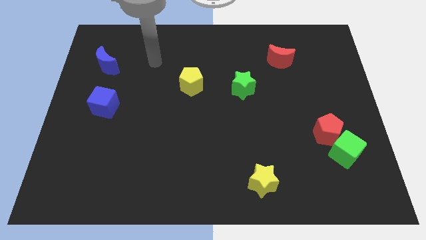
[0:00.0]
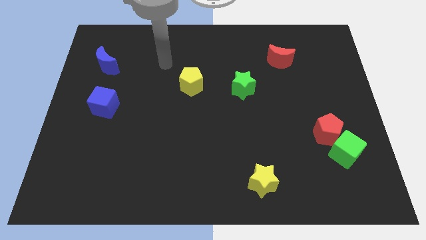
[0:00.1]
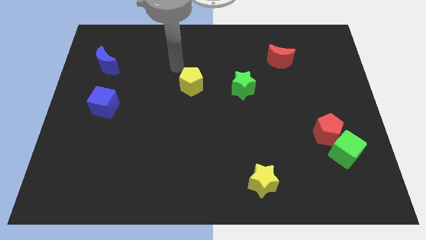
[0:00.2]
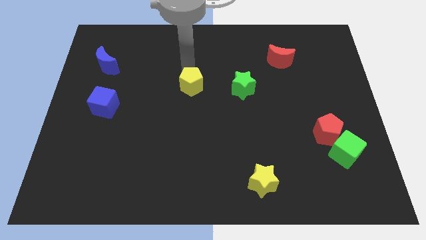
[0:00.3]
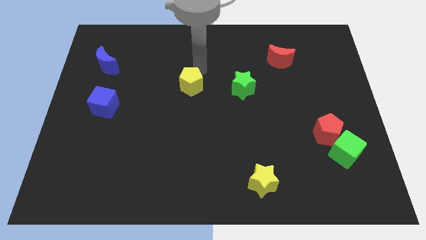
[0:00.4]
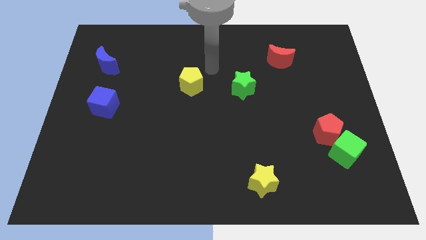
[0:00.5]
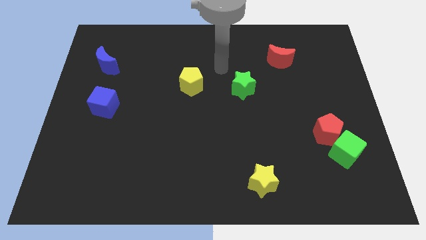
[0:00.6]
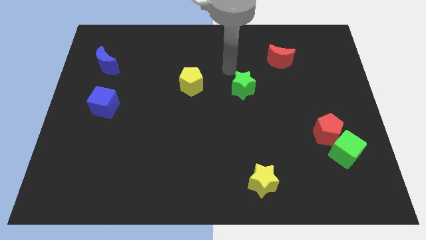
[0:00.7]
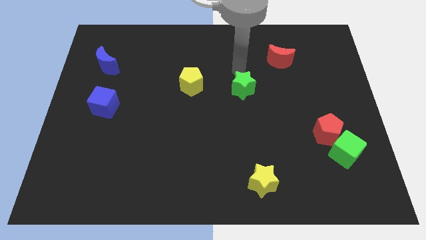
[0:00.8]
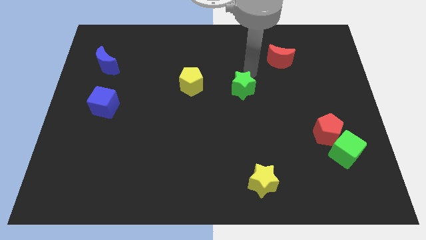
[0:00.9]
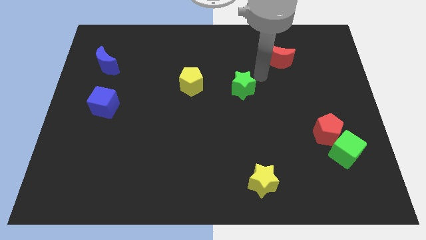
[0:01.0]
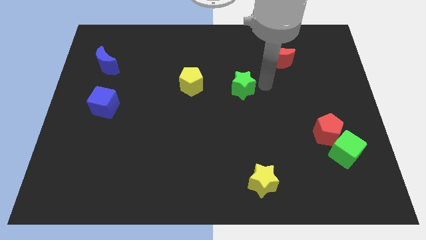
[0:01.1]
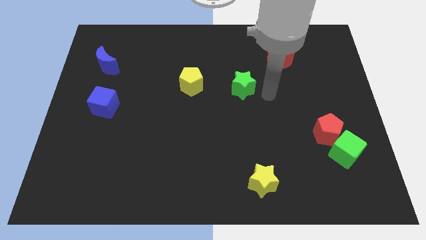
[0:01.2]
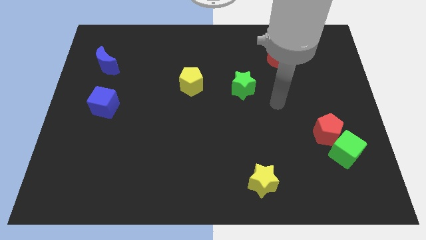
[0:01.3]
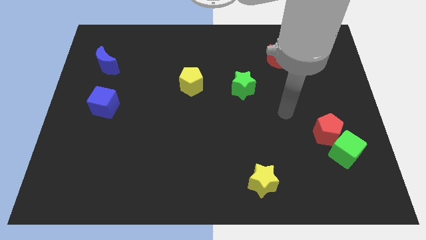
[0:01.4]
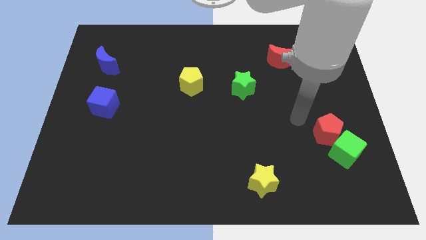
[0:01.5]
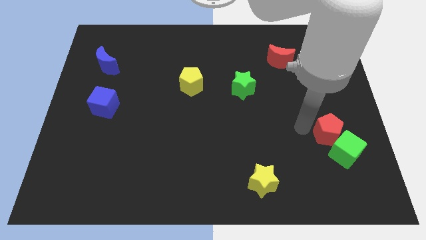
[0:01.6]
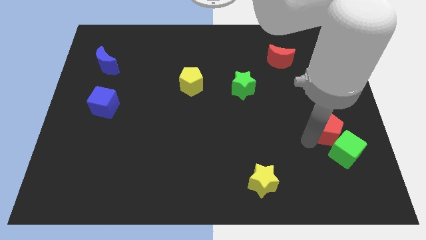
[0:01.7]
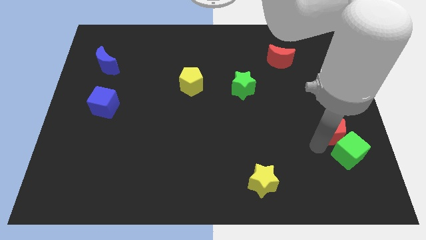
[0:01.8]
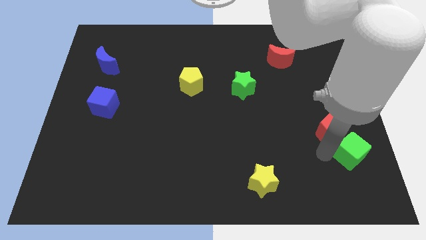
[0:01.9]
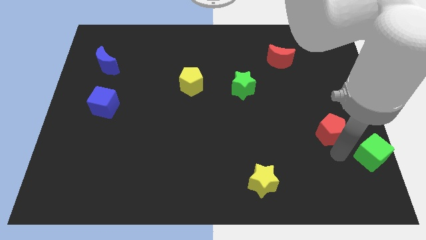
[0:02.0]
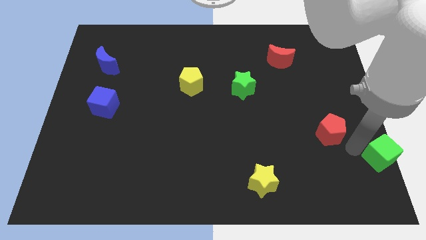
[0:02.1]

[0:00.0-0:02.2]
move the red pentagon away from the green cube

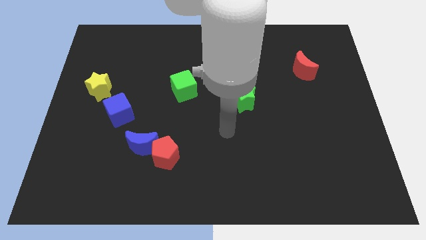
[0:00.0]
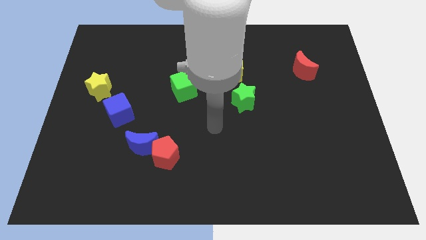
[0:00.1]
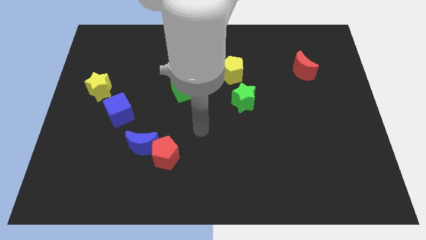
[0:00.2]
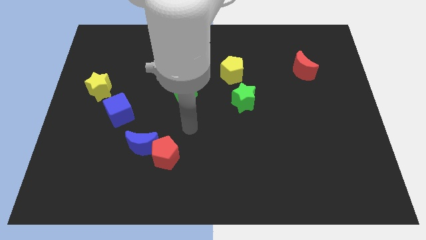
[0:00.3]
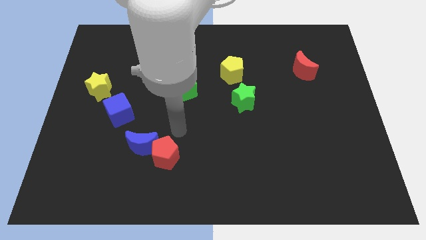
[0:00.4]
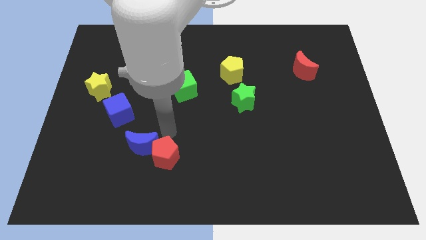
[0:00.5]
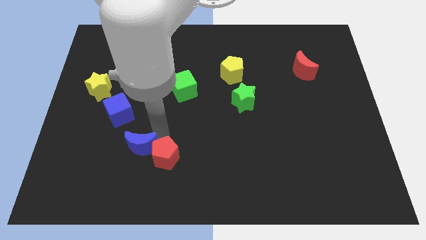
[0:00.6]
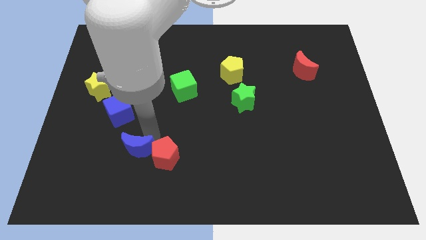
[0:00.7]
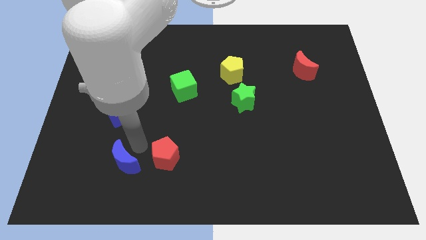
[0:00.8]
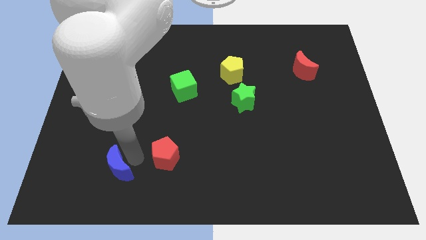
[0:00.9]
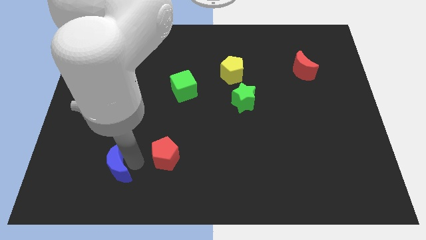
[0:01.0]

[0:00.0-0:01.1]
separate the red pentagon from the blue moon

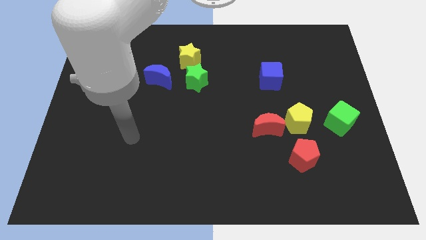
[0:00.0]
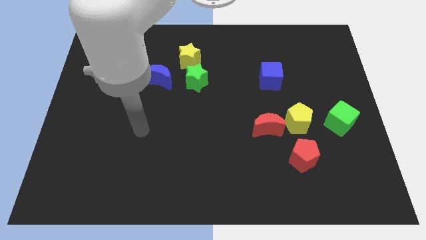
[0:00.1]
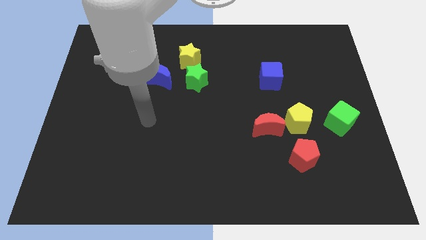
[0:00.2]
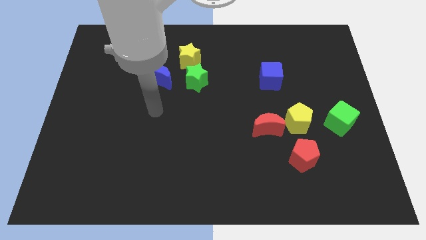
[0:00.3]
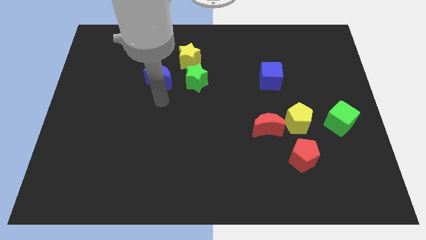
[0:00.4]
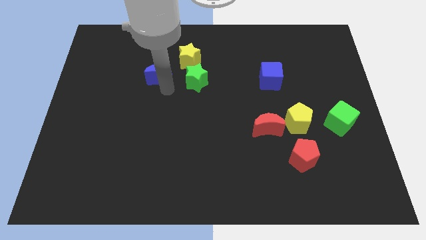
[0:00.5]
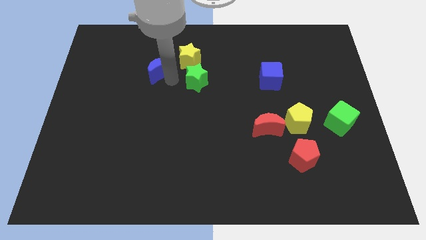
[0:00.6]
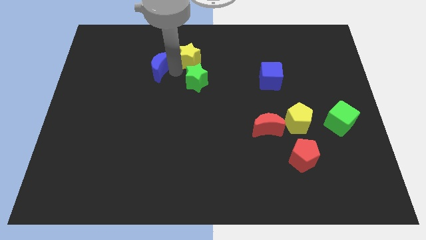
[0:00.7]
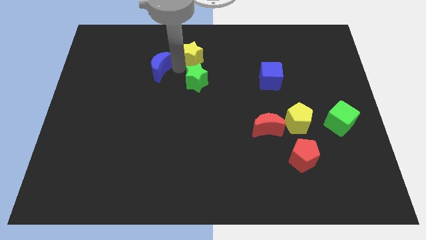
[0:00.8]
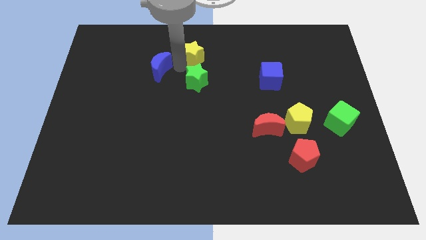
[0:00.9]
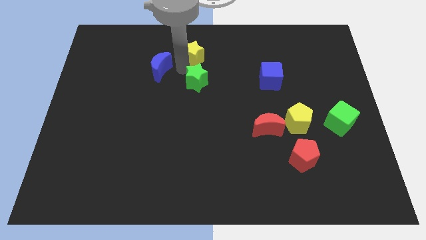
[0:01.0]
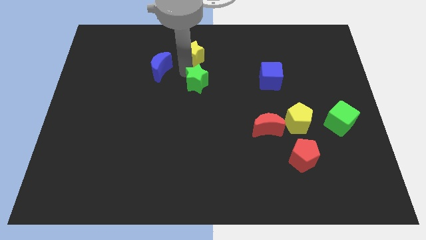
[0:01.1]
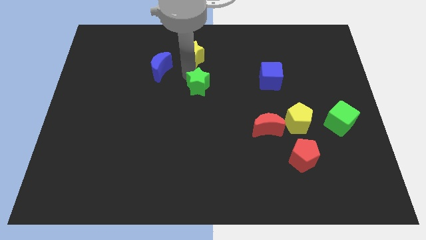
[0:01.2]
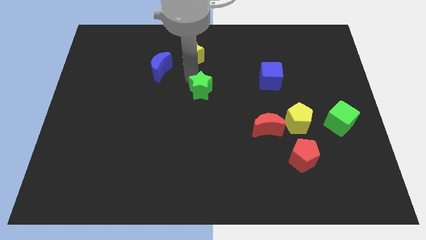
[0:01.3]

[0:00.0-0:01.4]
pull the green star apart from the yellow star and blue moon

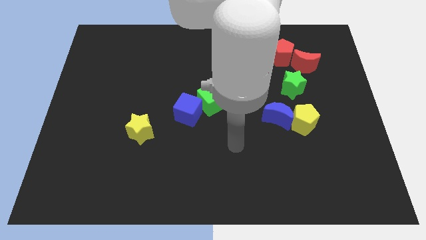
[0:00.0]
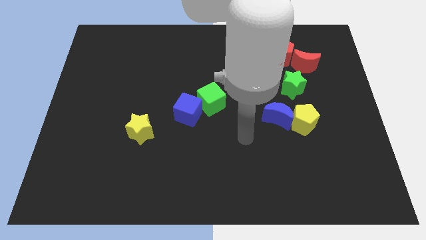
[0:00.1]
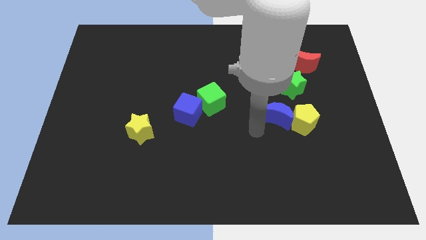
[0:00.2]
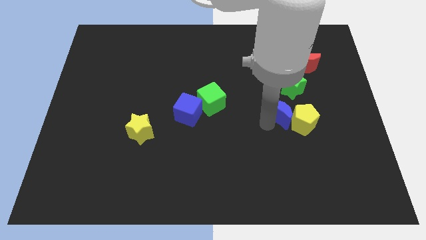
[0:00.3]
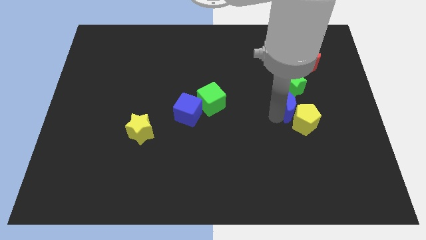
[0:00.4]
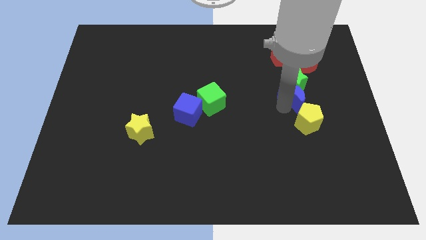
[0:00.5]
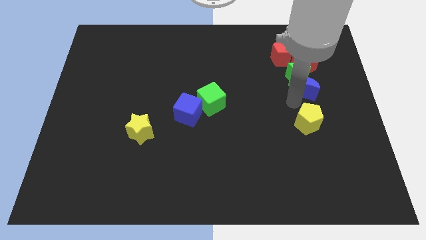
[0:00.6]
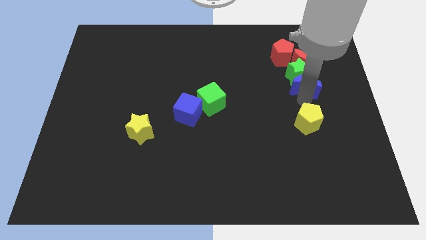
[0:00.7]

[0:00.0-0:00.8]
separate the yellow pentagon from the blue moon

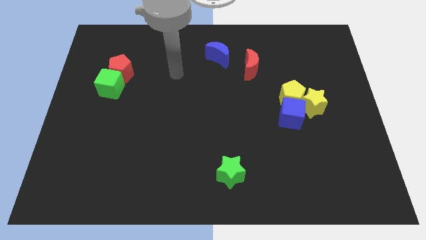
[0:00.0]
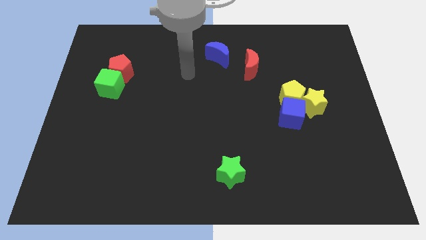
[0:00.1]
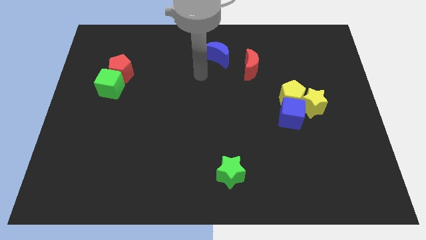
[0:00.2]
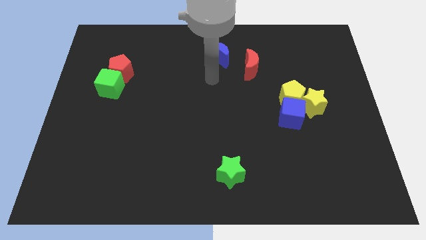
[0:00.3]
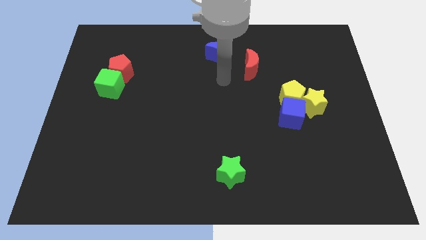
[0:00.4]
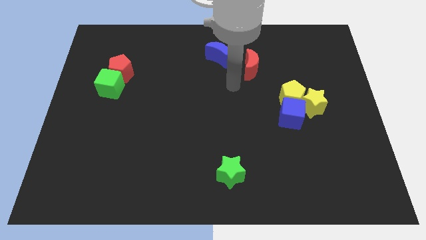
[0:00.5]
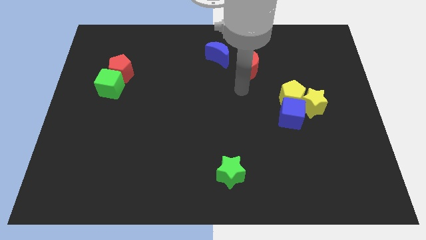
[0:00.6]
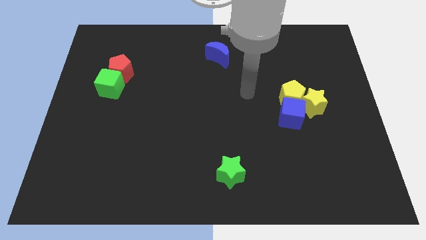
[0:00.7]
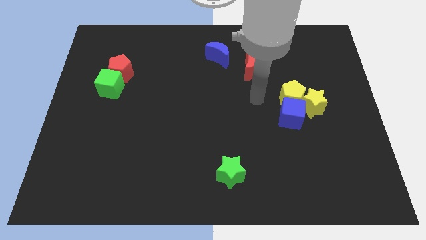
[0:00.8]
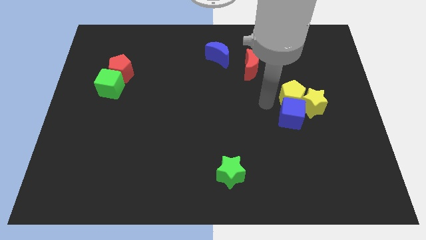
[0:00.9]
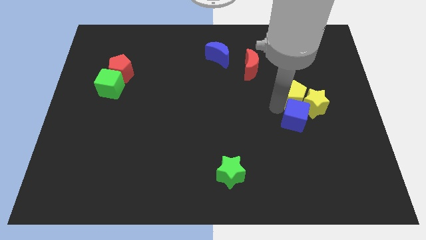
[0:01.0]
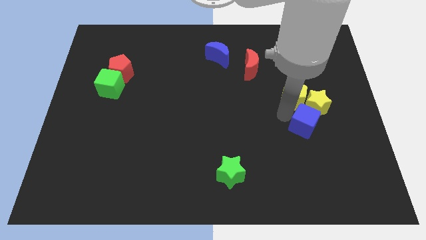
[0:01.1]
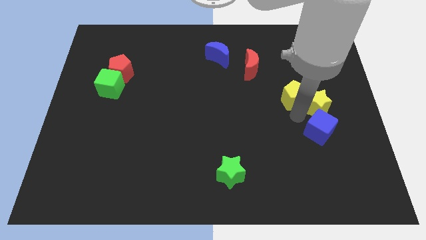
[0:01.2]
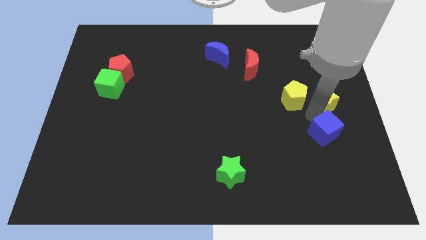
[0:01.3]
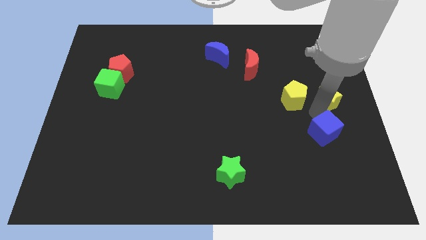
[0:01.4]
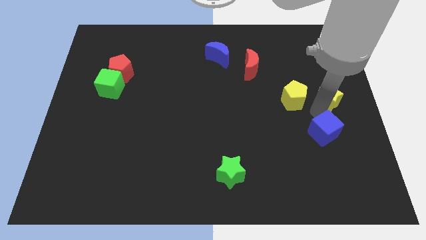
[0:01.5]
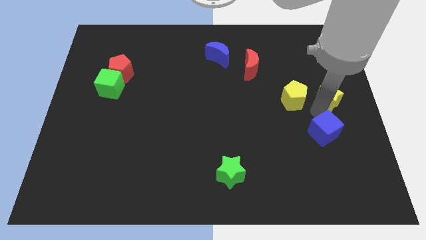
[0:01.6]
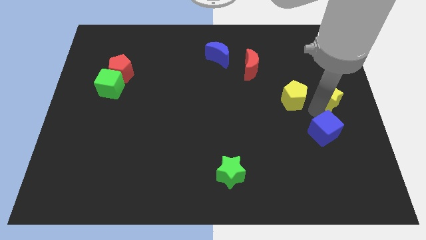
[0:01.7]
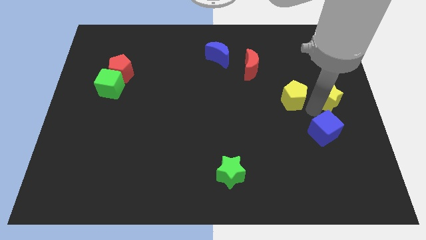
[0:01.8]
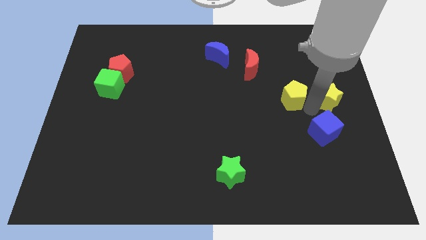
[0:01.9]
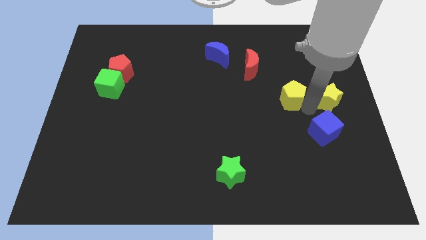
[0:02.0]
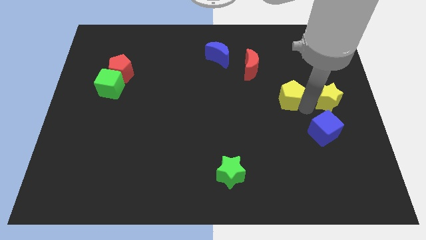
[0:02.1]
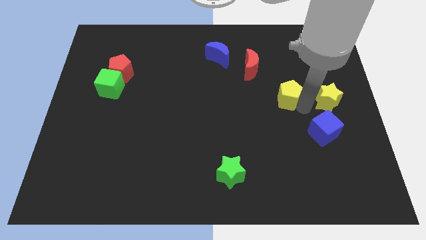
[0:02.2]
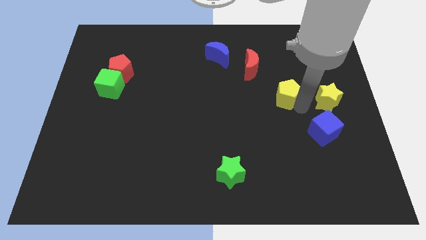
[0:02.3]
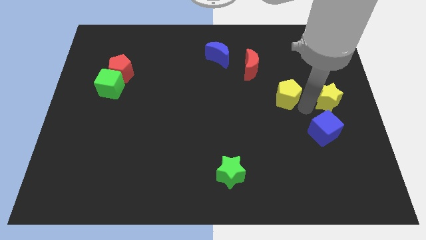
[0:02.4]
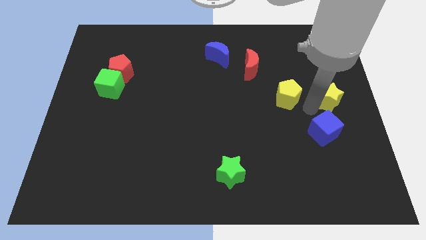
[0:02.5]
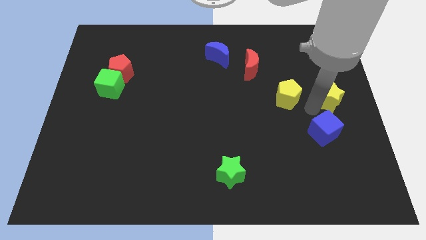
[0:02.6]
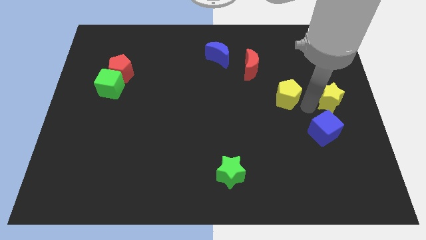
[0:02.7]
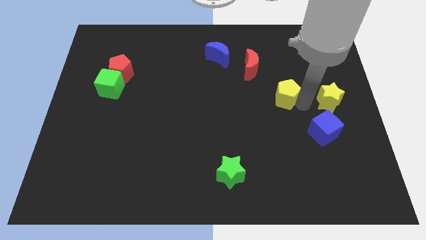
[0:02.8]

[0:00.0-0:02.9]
pull the yellow pentagon apart from the yellow star and blue cube

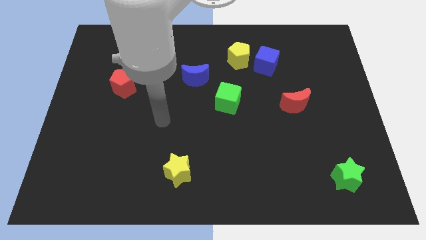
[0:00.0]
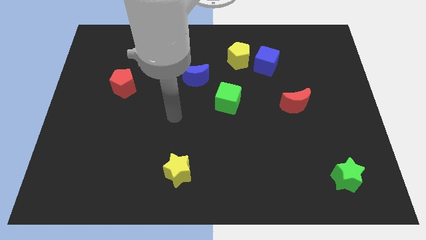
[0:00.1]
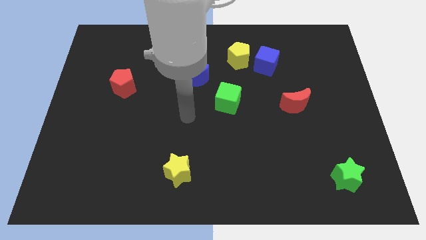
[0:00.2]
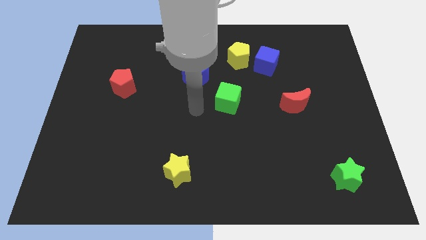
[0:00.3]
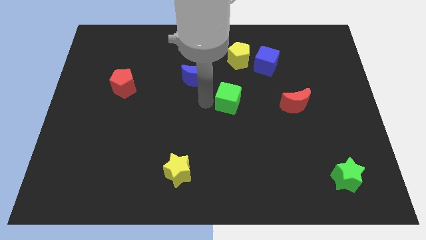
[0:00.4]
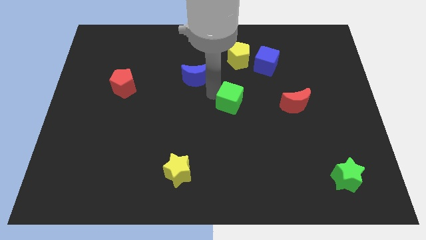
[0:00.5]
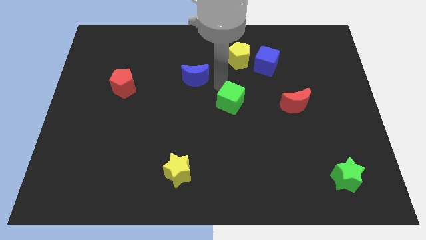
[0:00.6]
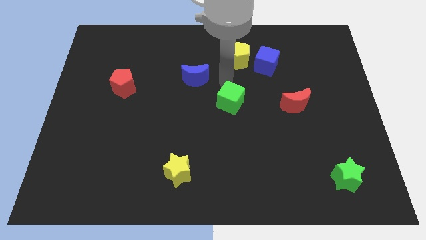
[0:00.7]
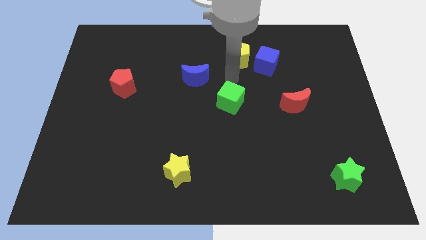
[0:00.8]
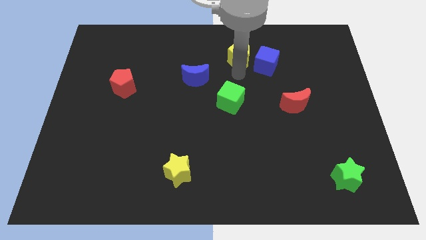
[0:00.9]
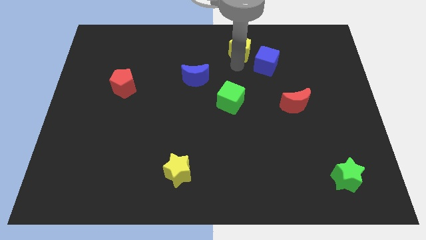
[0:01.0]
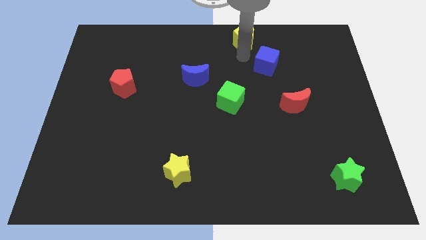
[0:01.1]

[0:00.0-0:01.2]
separate the blue cube from the yellow pentagon
